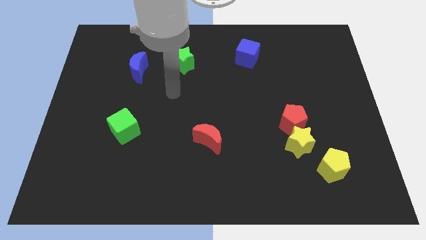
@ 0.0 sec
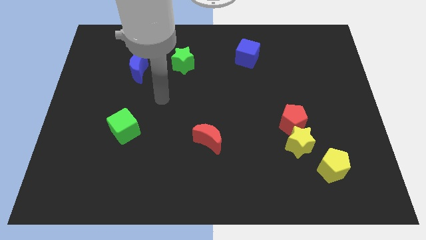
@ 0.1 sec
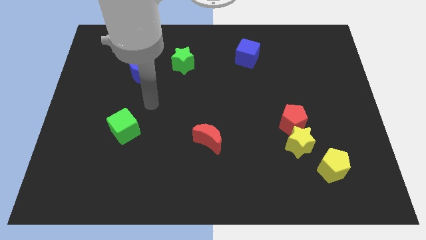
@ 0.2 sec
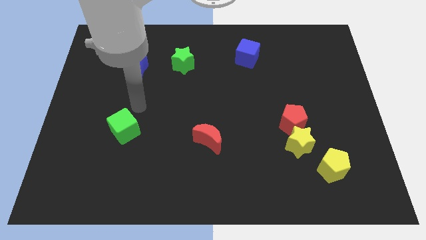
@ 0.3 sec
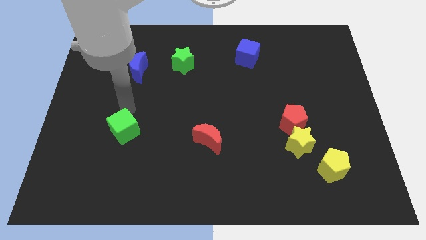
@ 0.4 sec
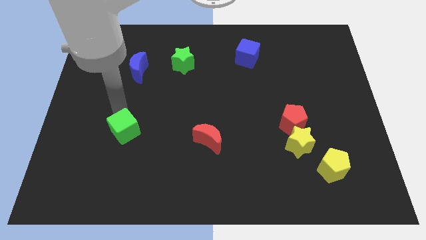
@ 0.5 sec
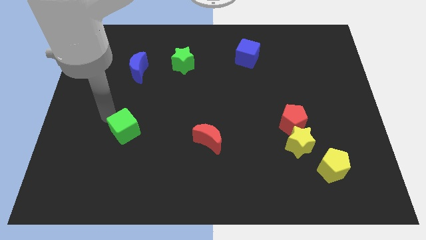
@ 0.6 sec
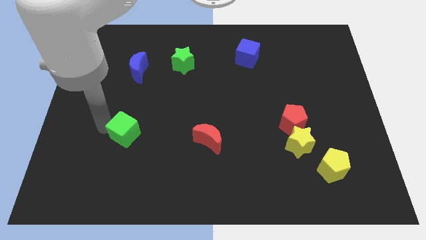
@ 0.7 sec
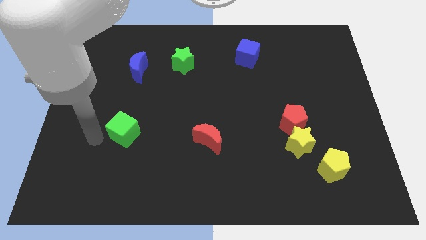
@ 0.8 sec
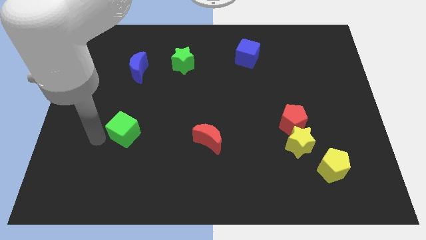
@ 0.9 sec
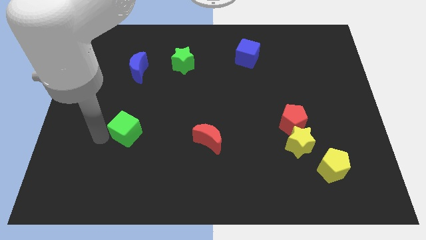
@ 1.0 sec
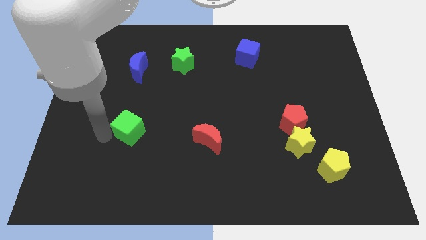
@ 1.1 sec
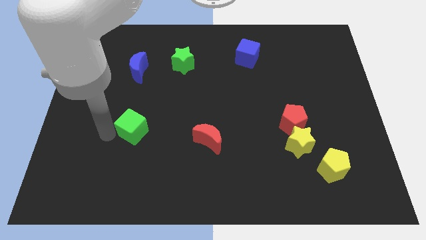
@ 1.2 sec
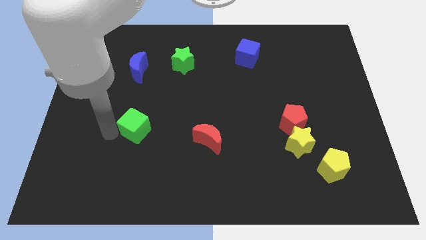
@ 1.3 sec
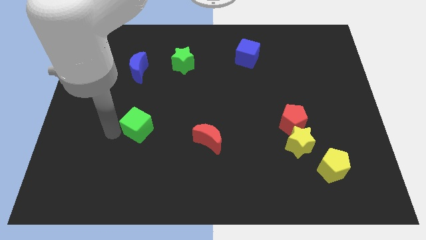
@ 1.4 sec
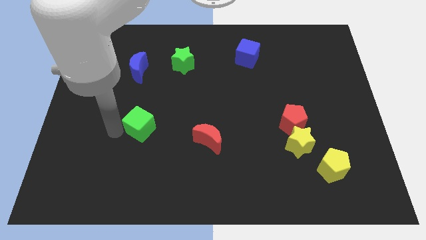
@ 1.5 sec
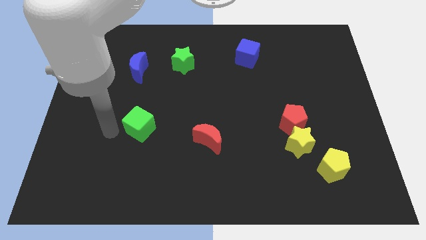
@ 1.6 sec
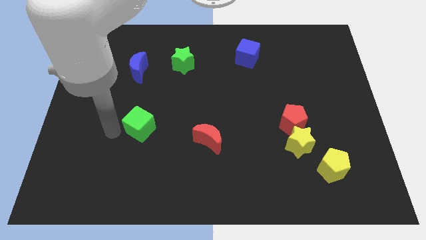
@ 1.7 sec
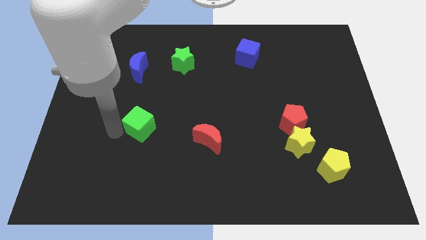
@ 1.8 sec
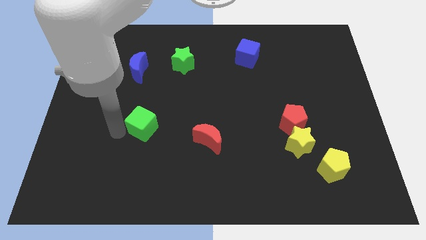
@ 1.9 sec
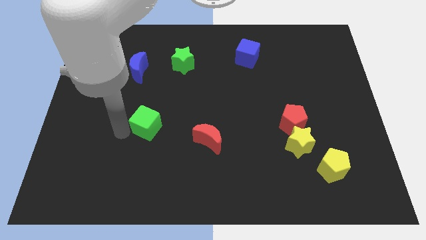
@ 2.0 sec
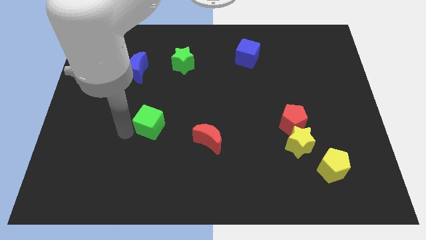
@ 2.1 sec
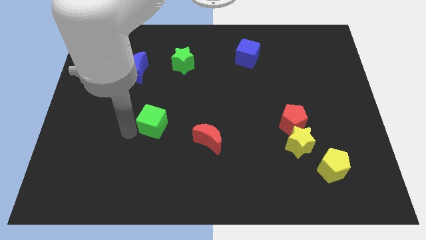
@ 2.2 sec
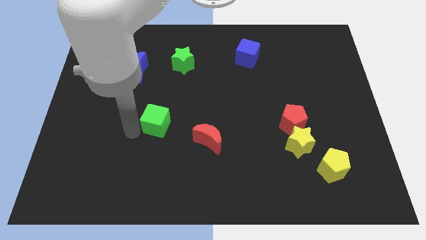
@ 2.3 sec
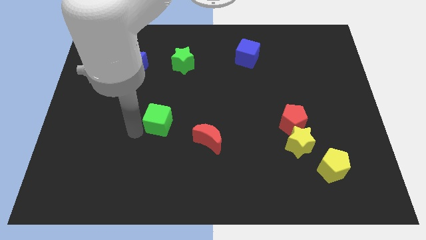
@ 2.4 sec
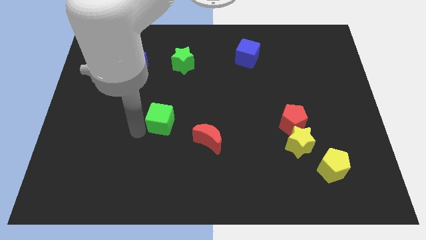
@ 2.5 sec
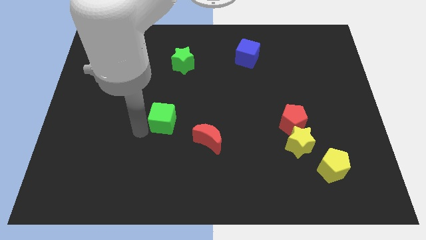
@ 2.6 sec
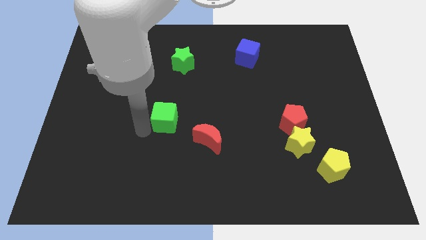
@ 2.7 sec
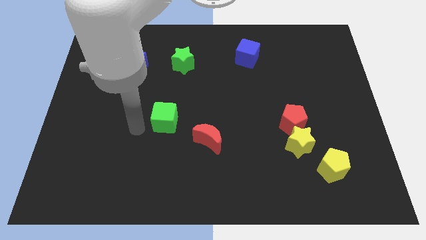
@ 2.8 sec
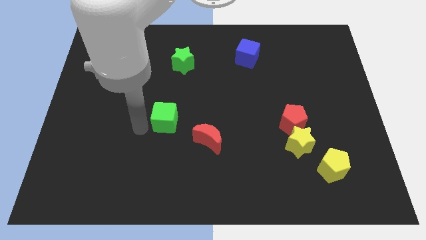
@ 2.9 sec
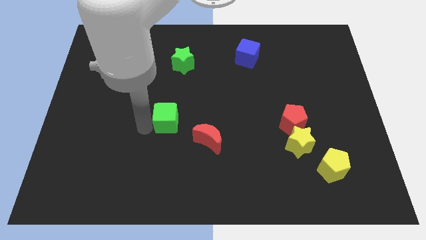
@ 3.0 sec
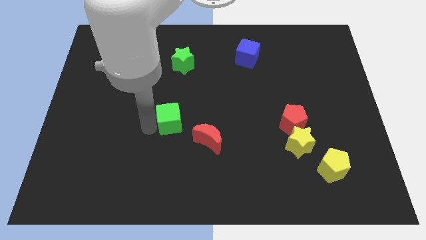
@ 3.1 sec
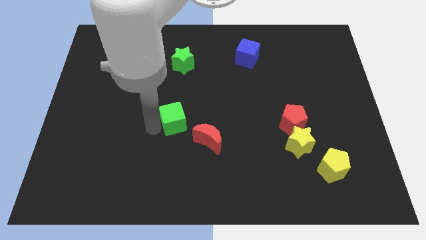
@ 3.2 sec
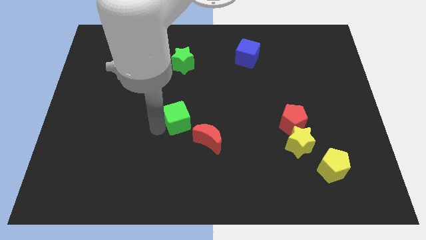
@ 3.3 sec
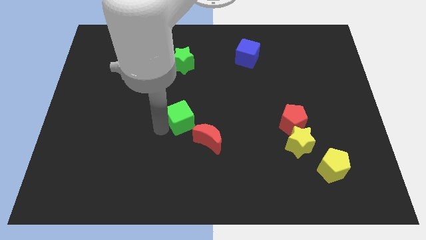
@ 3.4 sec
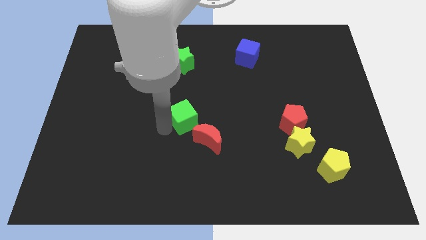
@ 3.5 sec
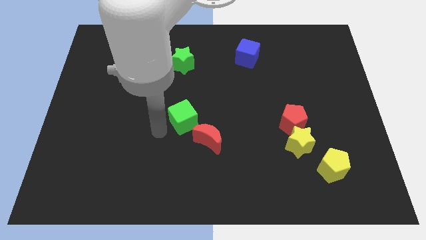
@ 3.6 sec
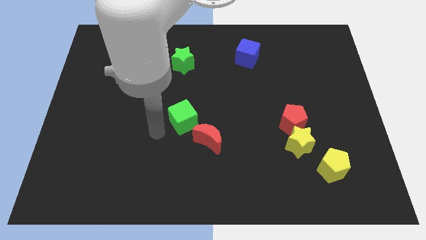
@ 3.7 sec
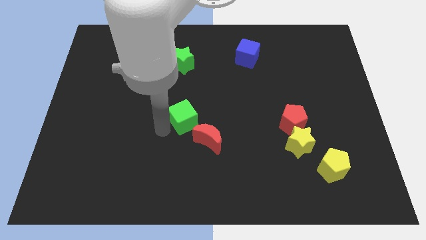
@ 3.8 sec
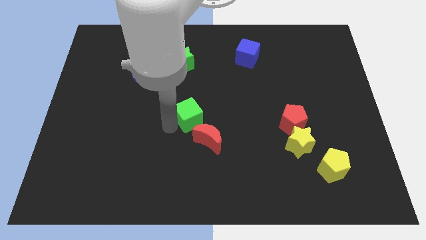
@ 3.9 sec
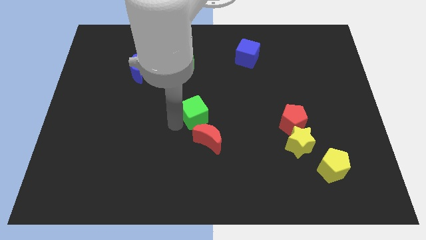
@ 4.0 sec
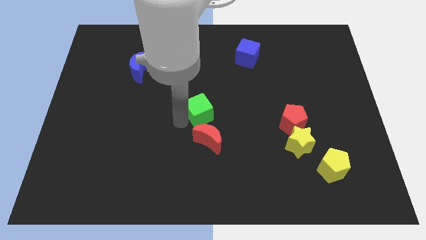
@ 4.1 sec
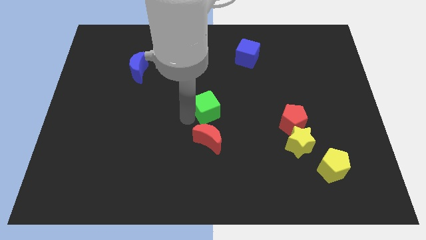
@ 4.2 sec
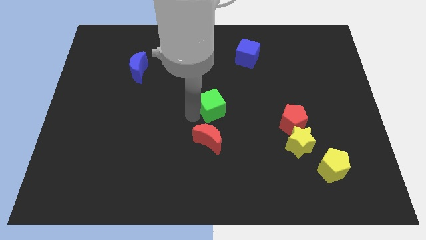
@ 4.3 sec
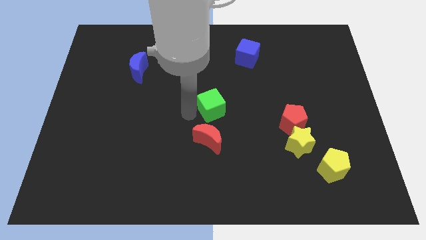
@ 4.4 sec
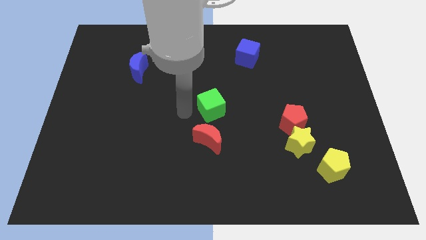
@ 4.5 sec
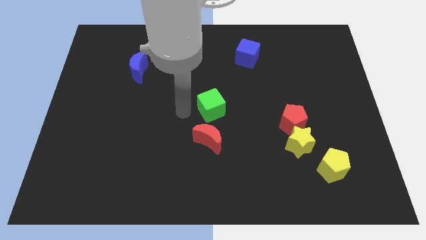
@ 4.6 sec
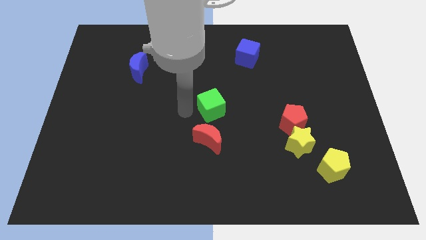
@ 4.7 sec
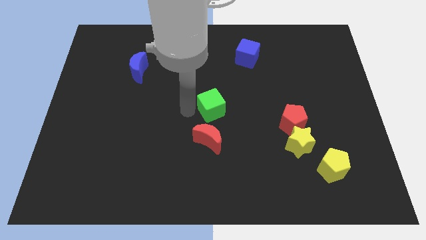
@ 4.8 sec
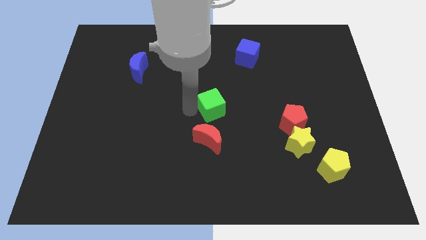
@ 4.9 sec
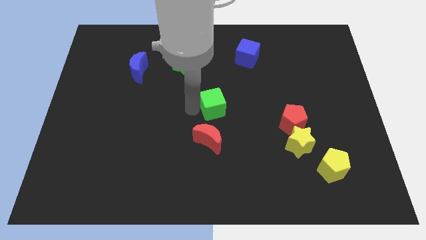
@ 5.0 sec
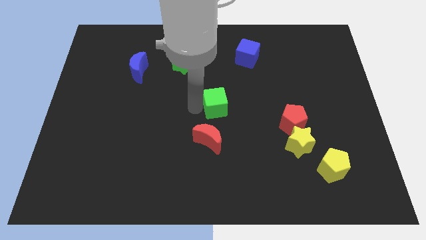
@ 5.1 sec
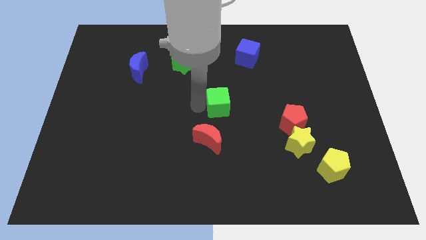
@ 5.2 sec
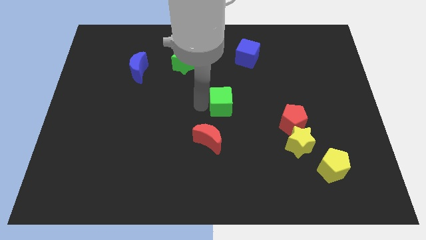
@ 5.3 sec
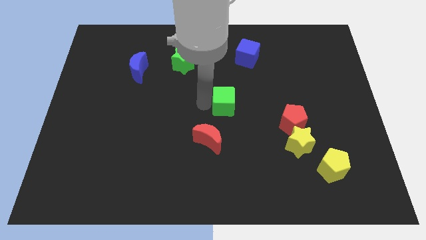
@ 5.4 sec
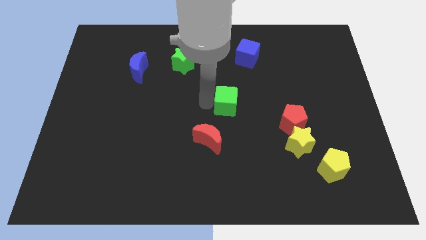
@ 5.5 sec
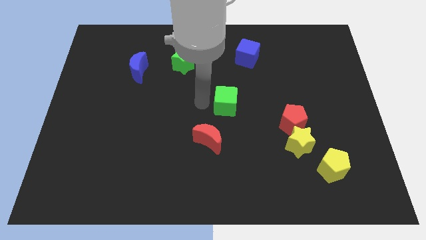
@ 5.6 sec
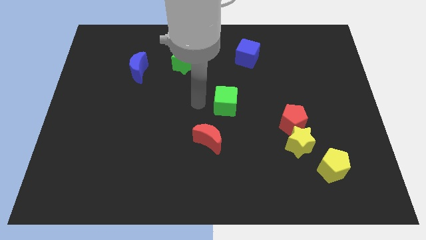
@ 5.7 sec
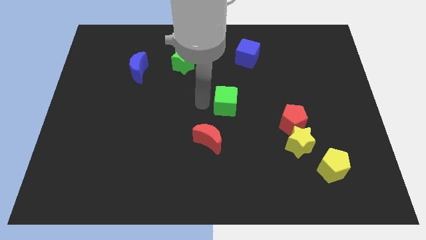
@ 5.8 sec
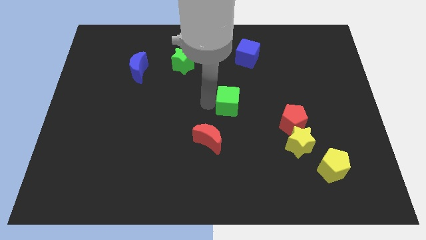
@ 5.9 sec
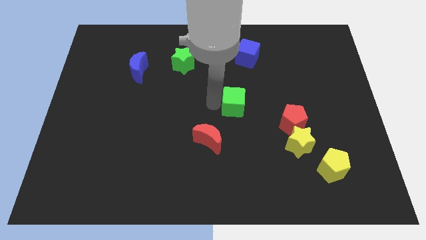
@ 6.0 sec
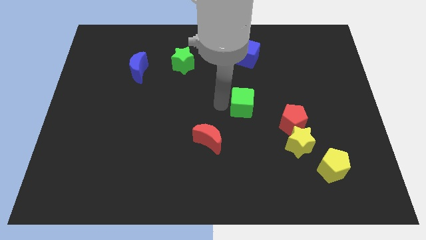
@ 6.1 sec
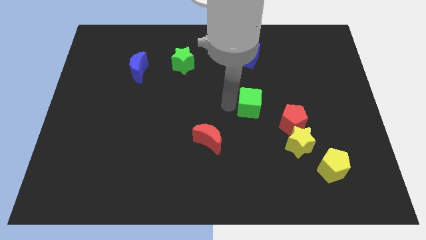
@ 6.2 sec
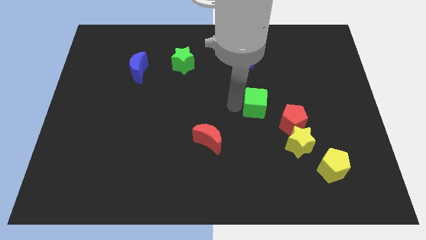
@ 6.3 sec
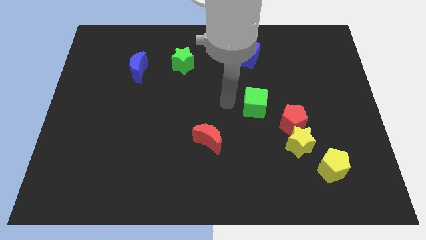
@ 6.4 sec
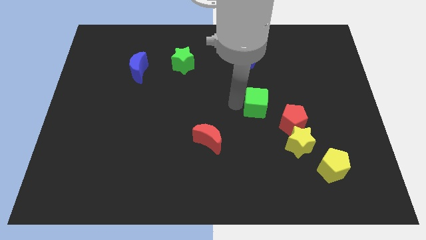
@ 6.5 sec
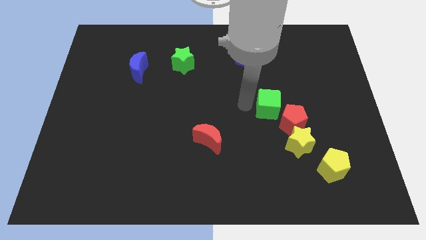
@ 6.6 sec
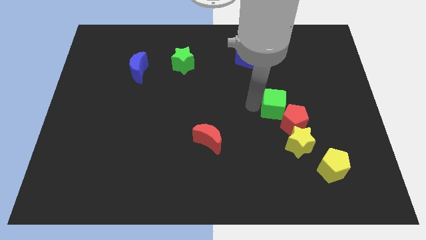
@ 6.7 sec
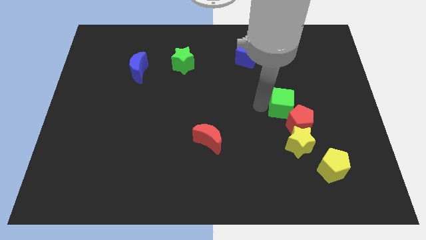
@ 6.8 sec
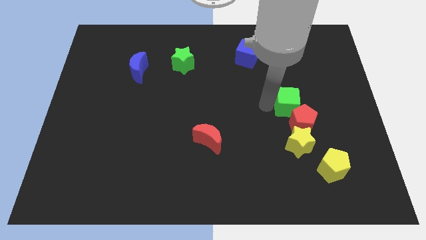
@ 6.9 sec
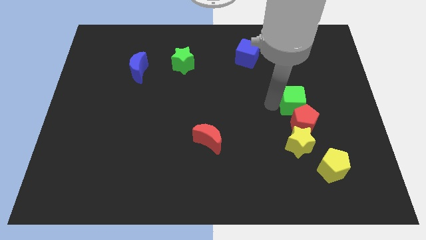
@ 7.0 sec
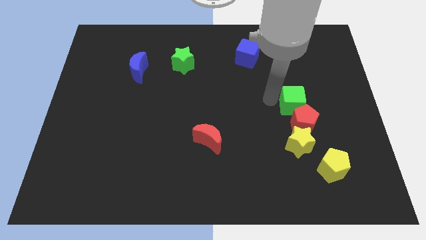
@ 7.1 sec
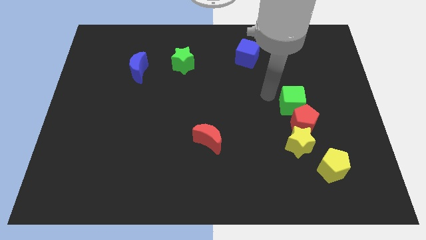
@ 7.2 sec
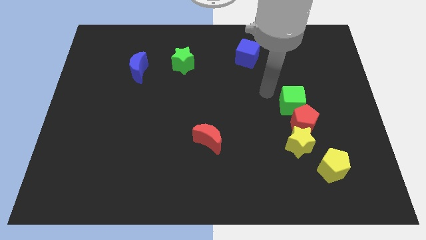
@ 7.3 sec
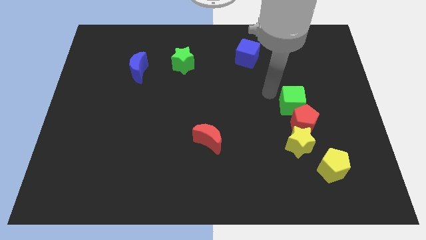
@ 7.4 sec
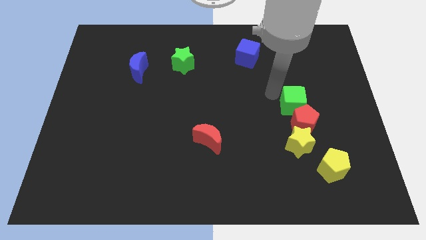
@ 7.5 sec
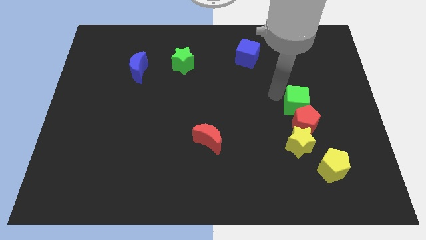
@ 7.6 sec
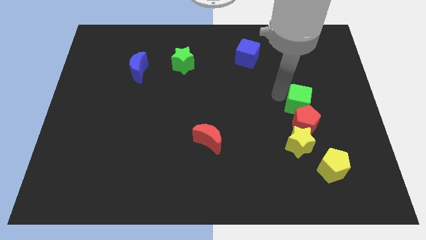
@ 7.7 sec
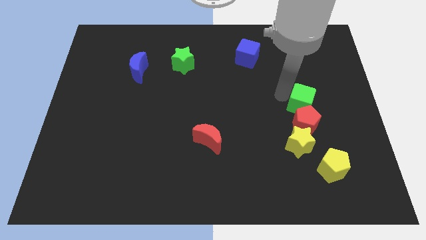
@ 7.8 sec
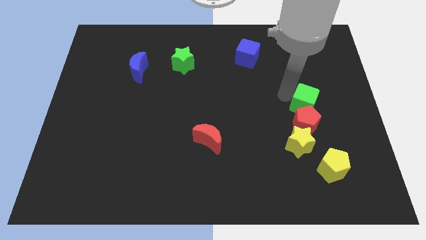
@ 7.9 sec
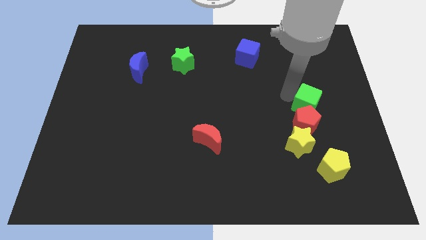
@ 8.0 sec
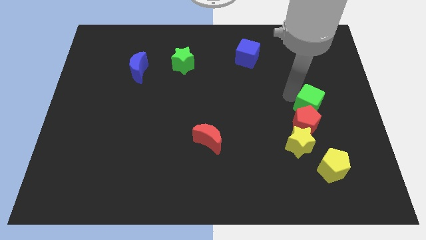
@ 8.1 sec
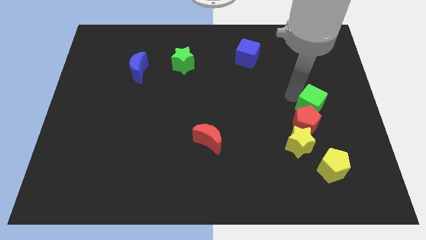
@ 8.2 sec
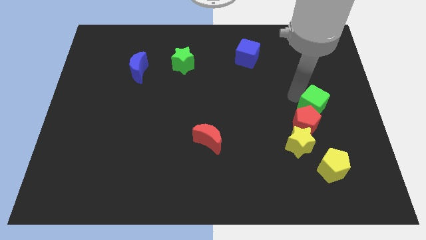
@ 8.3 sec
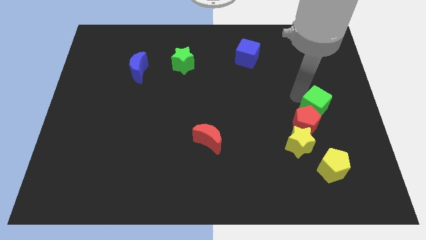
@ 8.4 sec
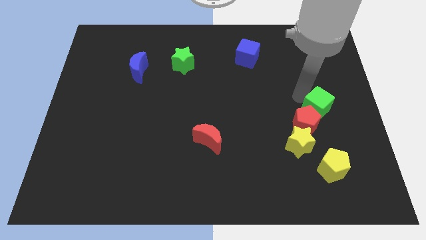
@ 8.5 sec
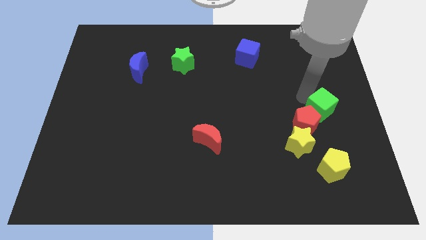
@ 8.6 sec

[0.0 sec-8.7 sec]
move the green cube right of the red pentagon
